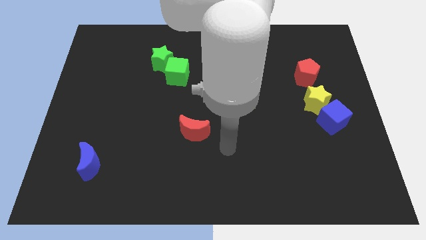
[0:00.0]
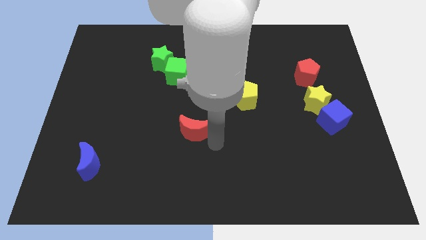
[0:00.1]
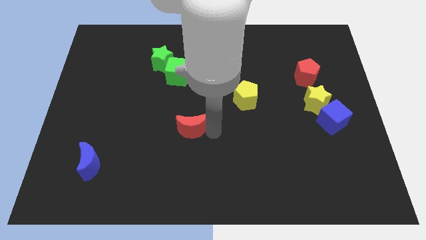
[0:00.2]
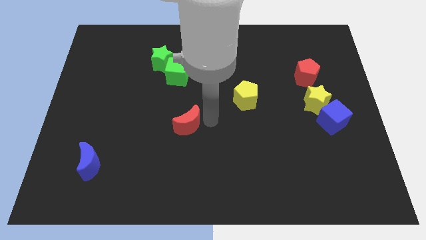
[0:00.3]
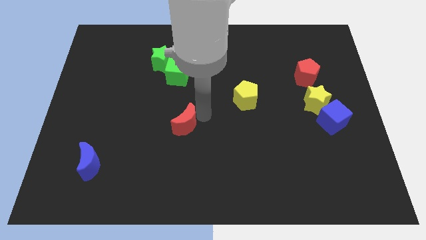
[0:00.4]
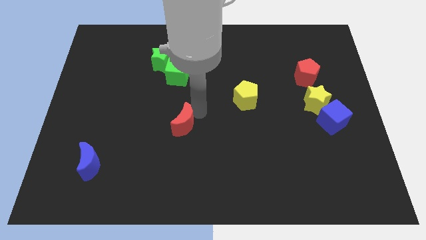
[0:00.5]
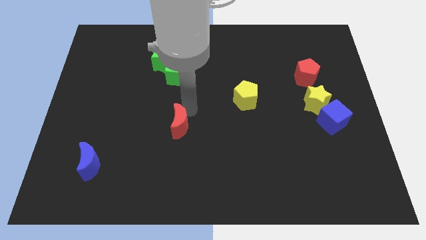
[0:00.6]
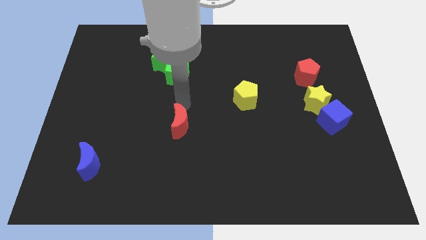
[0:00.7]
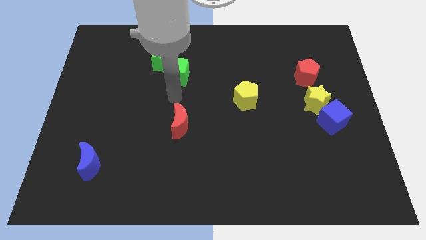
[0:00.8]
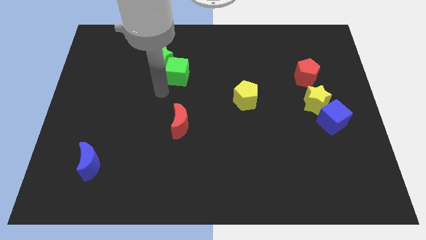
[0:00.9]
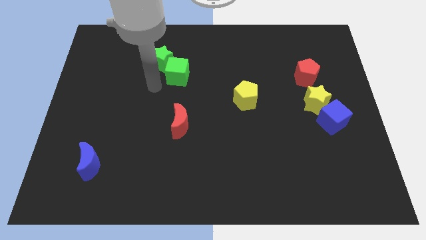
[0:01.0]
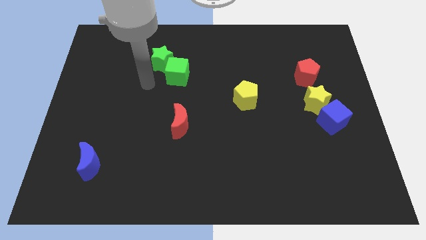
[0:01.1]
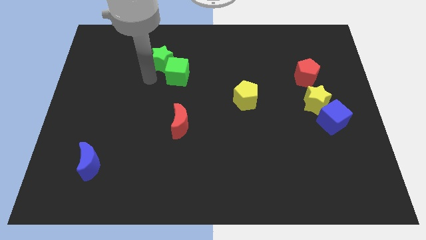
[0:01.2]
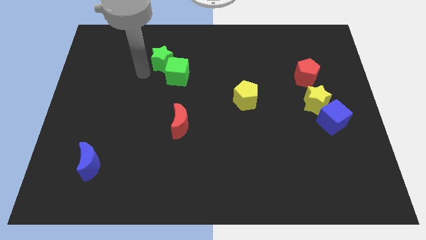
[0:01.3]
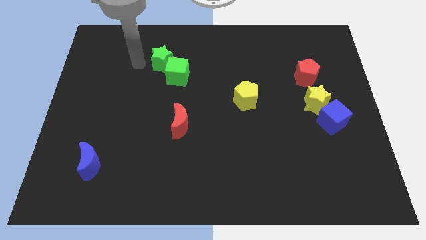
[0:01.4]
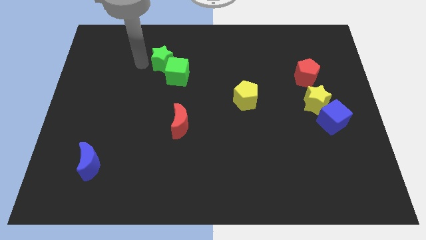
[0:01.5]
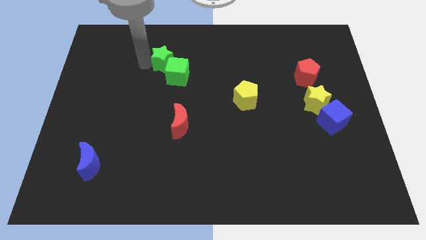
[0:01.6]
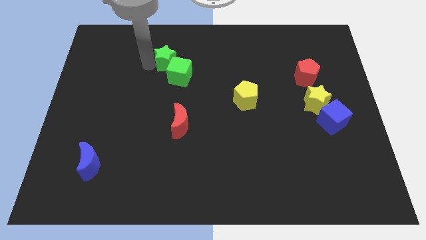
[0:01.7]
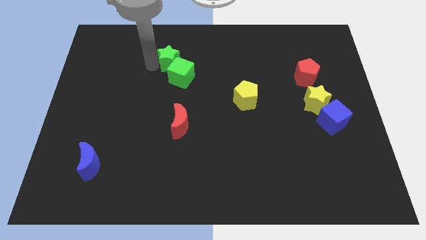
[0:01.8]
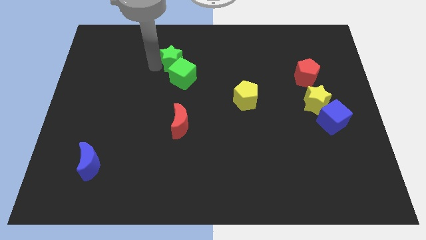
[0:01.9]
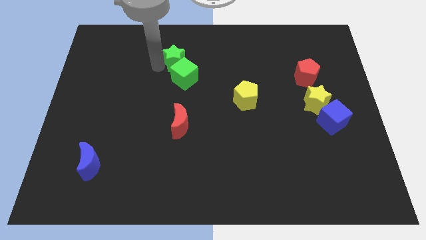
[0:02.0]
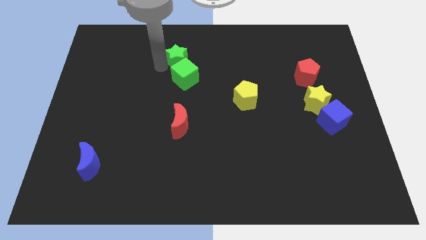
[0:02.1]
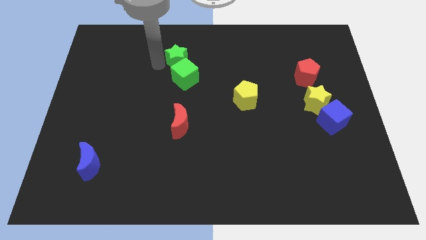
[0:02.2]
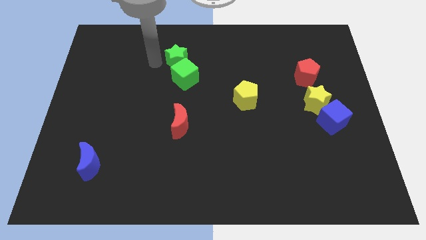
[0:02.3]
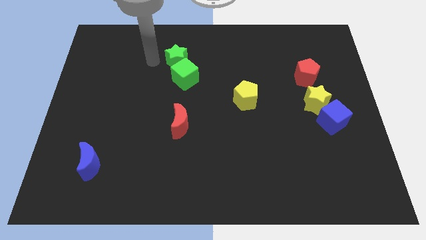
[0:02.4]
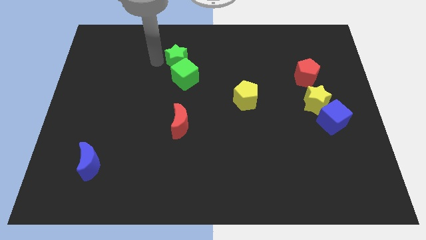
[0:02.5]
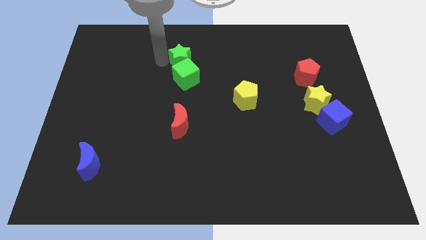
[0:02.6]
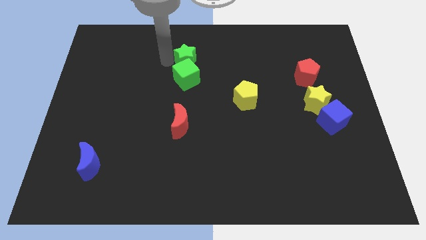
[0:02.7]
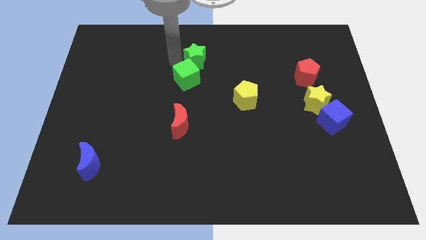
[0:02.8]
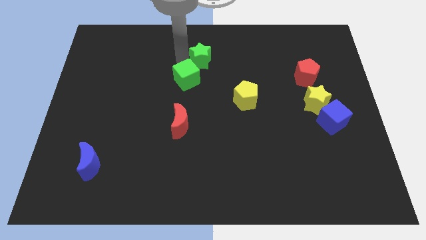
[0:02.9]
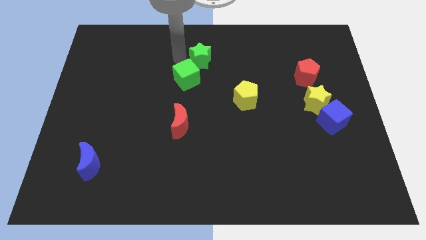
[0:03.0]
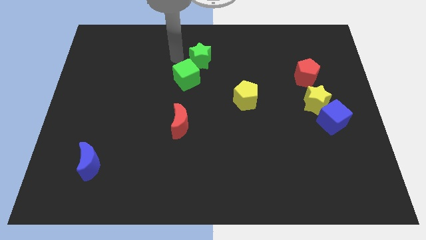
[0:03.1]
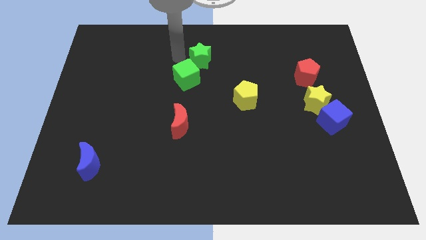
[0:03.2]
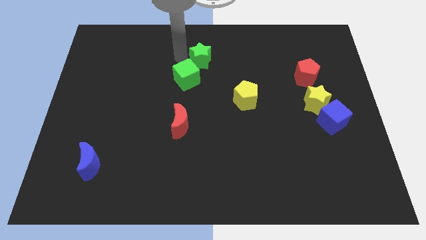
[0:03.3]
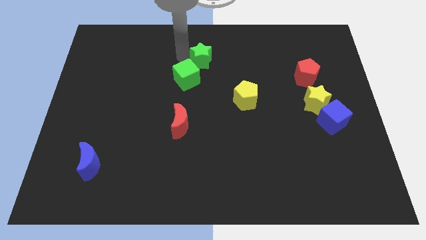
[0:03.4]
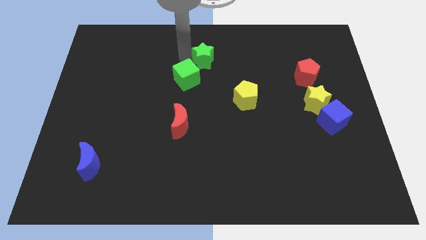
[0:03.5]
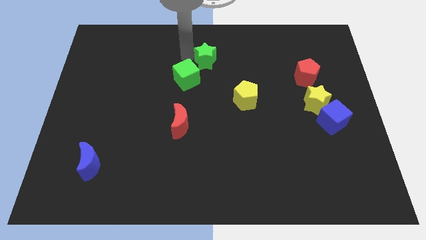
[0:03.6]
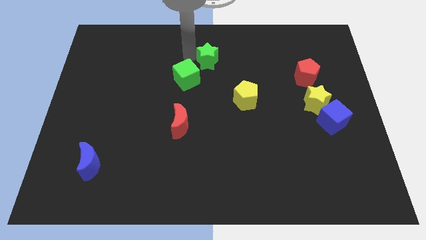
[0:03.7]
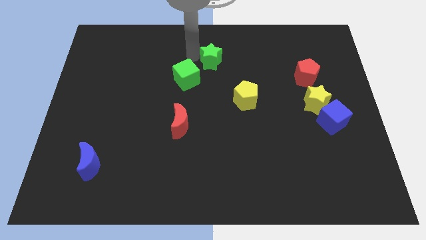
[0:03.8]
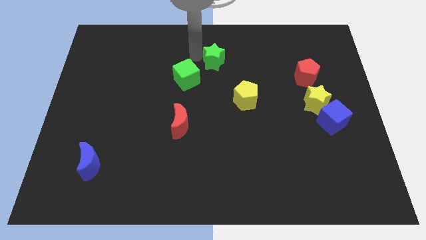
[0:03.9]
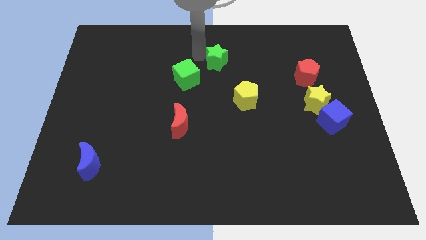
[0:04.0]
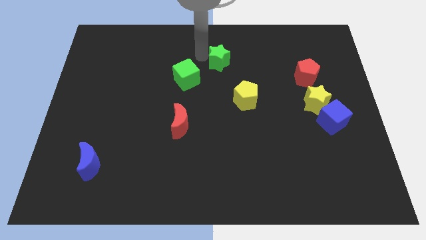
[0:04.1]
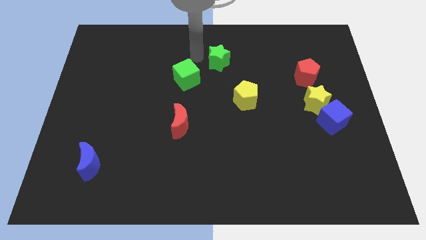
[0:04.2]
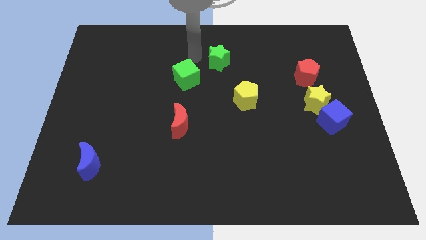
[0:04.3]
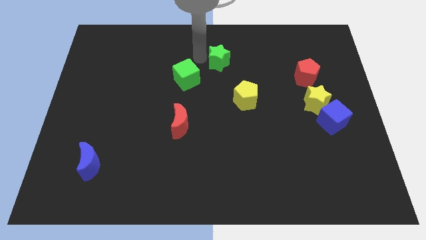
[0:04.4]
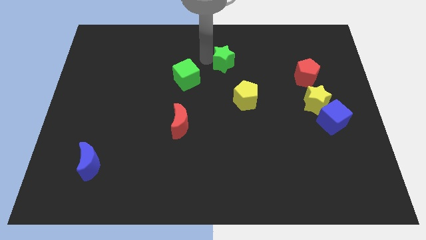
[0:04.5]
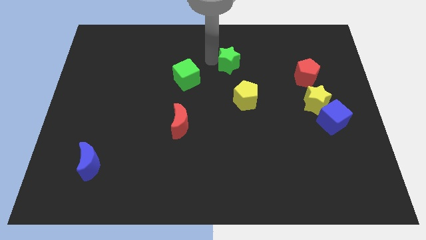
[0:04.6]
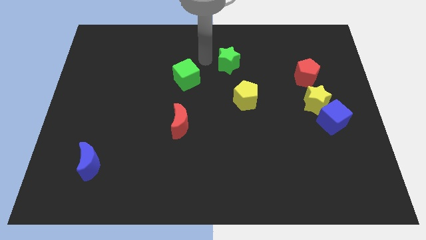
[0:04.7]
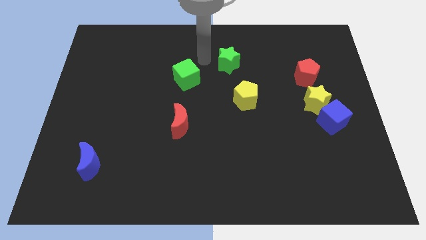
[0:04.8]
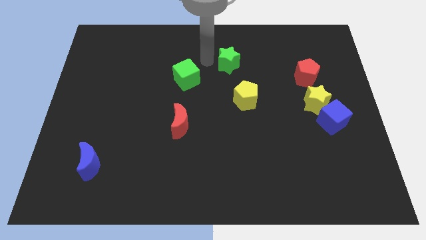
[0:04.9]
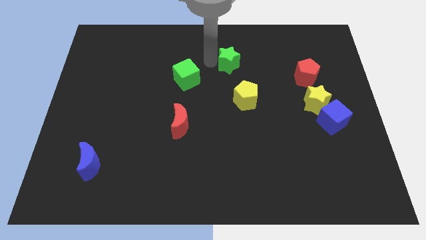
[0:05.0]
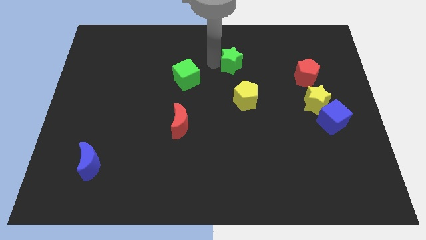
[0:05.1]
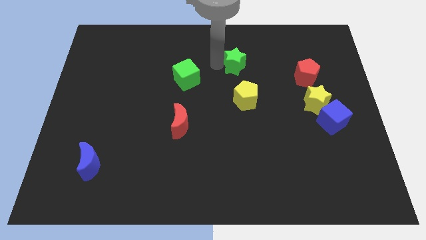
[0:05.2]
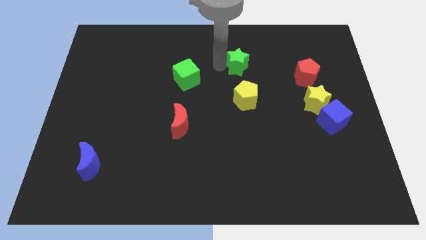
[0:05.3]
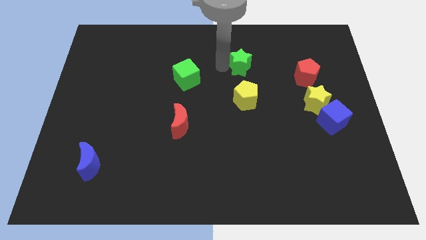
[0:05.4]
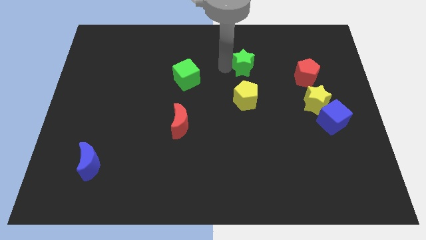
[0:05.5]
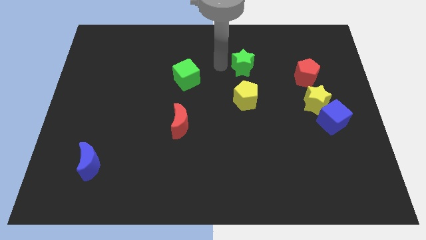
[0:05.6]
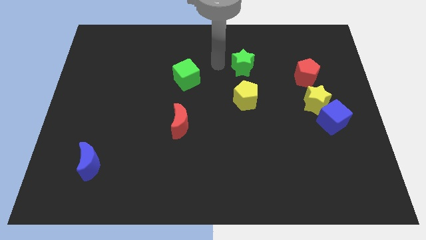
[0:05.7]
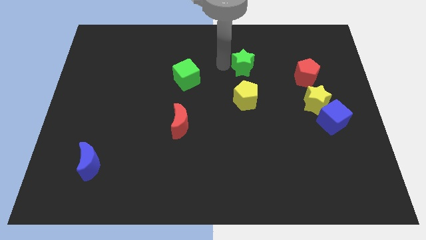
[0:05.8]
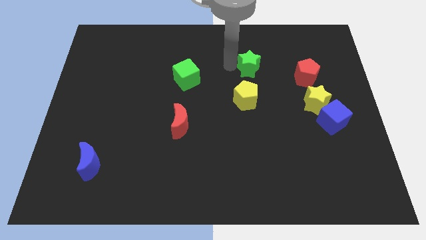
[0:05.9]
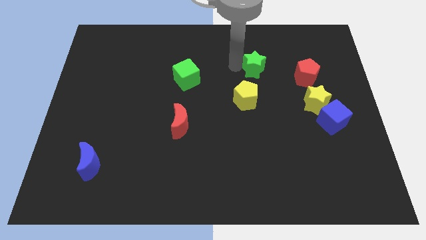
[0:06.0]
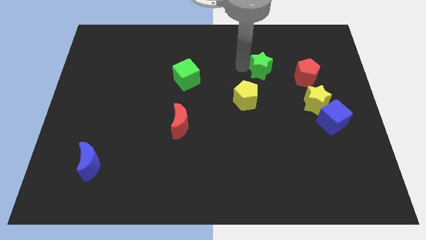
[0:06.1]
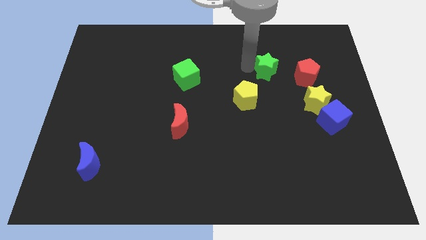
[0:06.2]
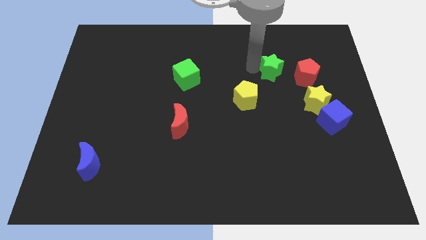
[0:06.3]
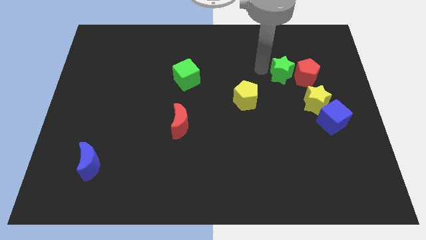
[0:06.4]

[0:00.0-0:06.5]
move the green star close to the red pentagon

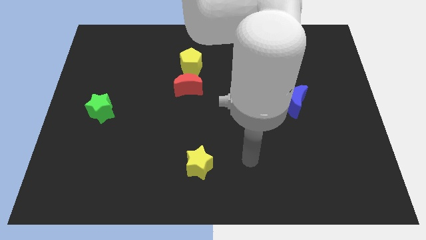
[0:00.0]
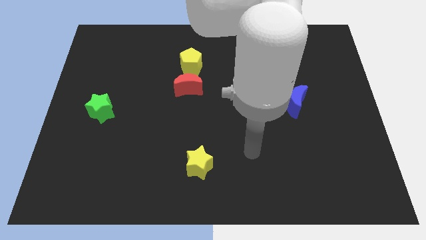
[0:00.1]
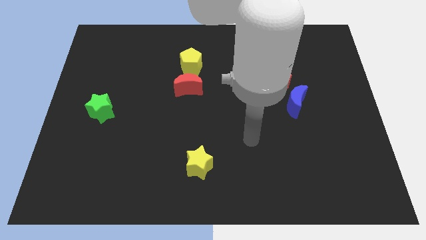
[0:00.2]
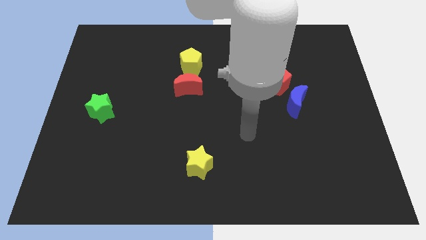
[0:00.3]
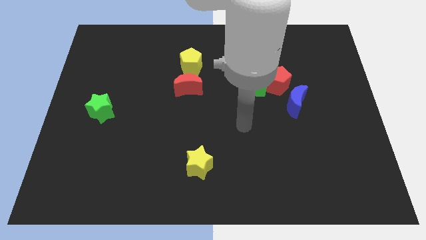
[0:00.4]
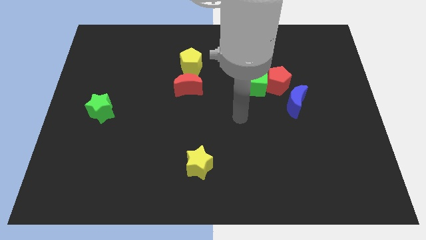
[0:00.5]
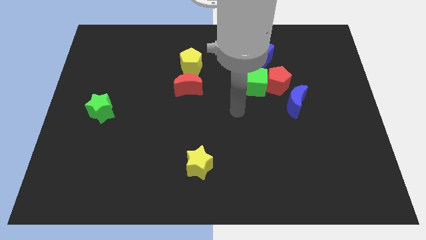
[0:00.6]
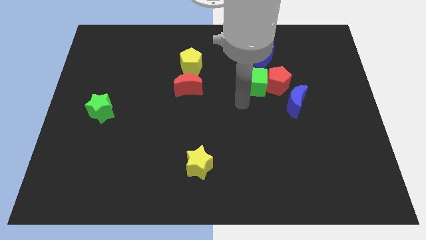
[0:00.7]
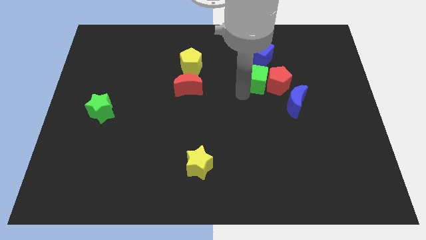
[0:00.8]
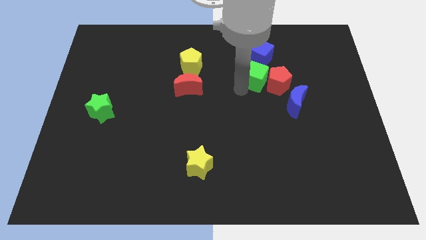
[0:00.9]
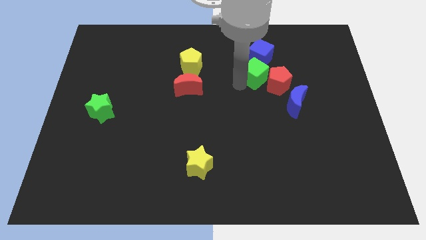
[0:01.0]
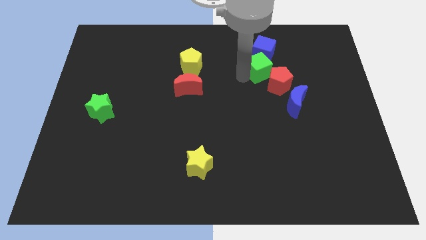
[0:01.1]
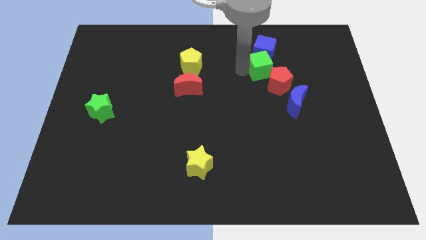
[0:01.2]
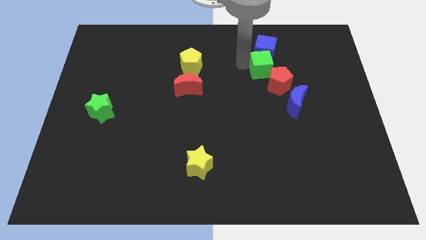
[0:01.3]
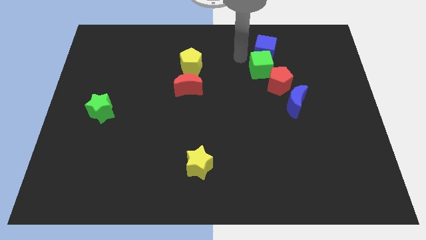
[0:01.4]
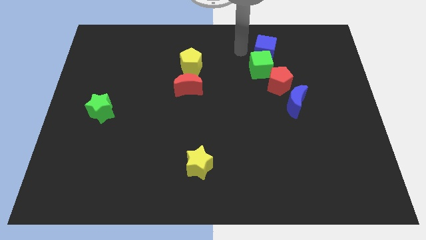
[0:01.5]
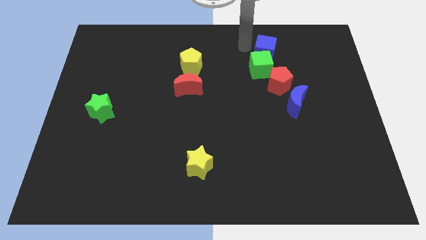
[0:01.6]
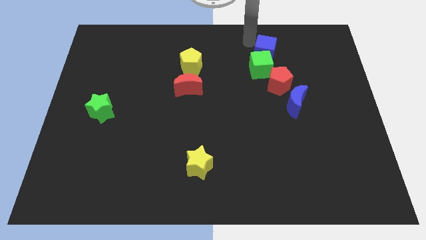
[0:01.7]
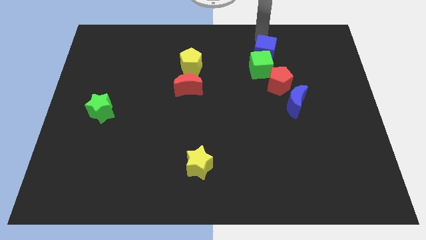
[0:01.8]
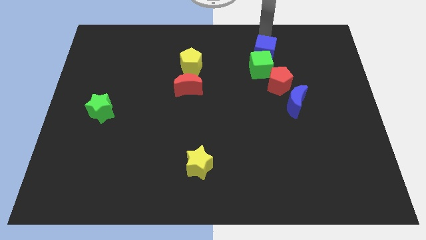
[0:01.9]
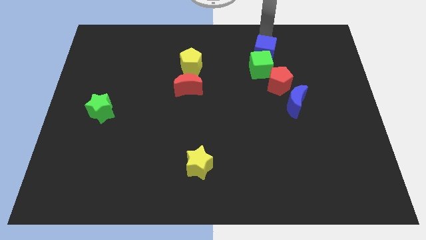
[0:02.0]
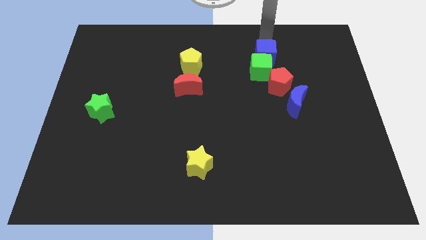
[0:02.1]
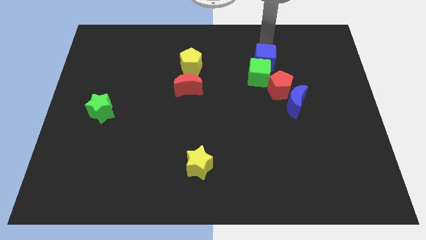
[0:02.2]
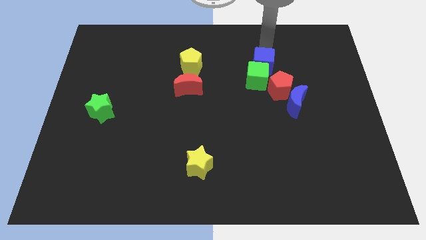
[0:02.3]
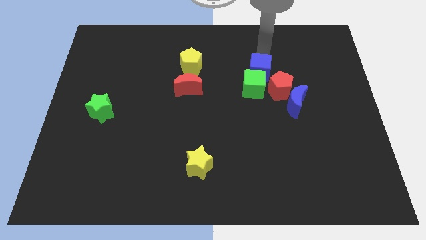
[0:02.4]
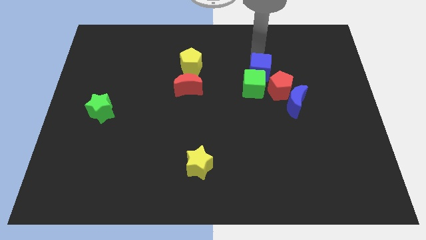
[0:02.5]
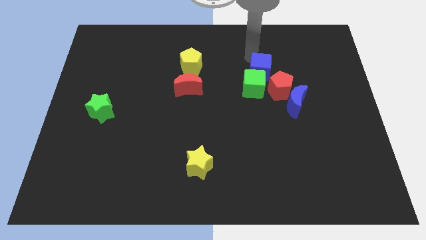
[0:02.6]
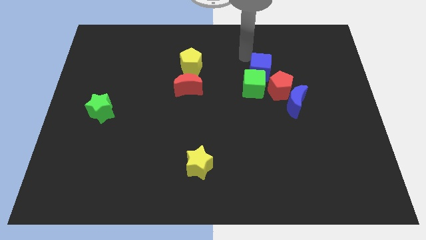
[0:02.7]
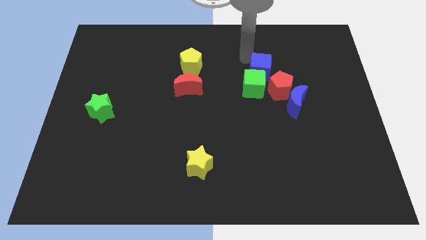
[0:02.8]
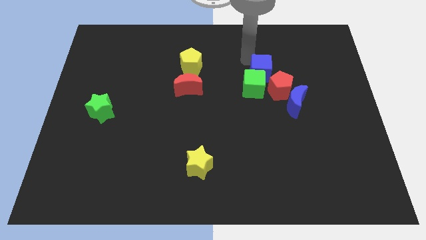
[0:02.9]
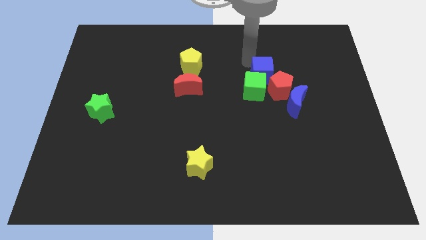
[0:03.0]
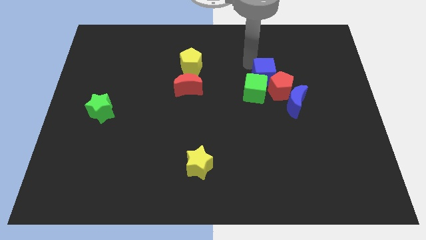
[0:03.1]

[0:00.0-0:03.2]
push the blue cube next to the red pentagon
